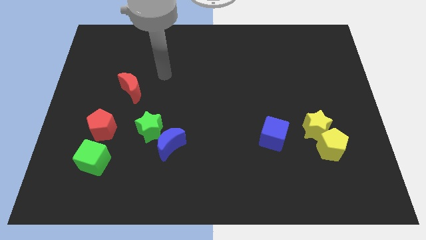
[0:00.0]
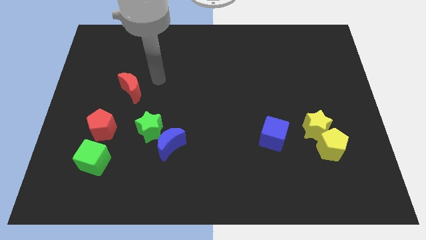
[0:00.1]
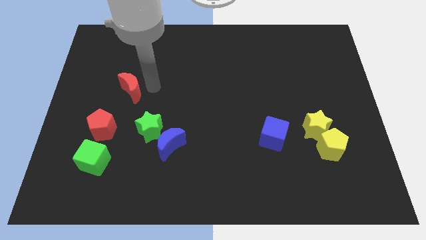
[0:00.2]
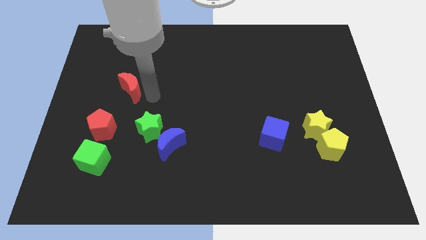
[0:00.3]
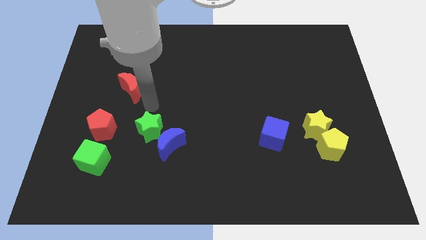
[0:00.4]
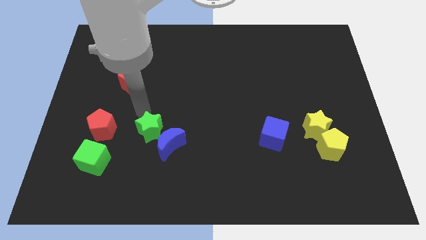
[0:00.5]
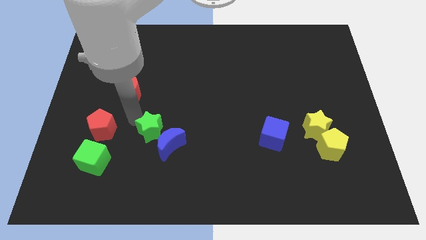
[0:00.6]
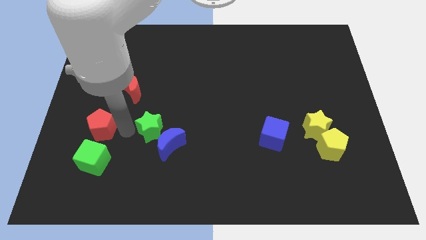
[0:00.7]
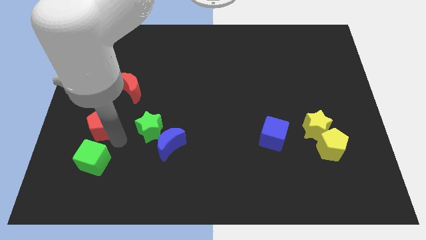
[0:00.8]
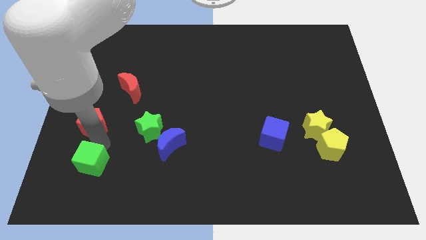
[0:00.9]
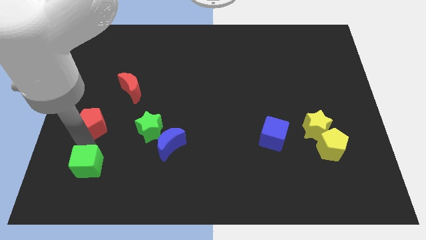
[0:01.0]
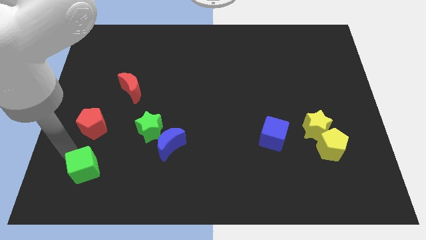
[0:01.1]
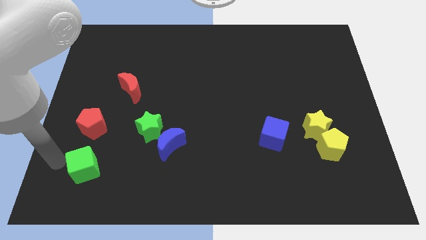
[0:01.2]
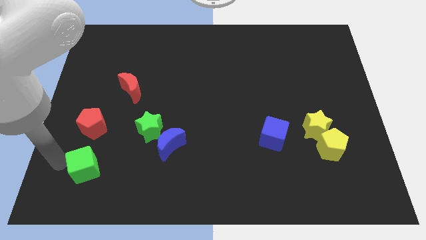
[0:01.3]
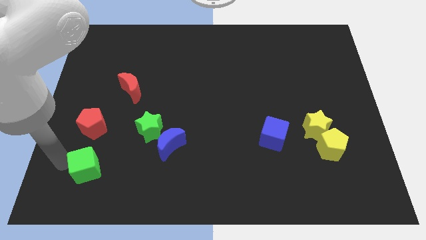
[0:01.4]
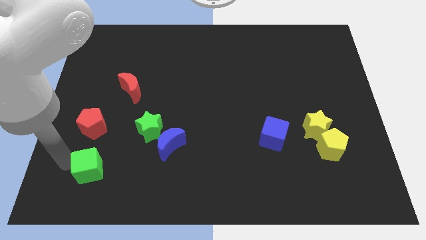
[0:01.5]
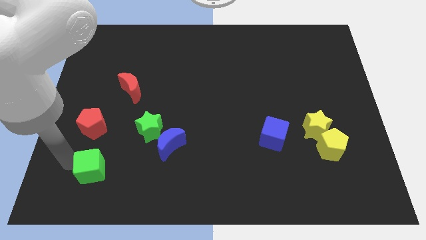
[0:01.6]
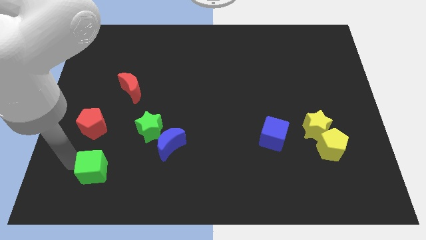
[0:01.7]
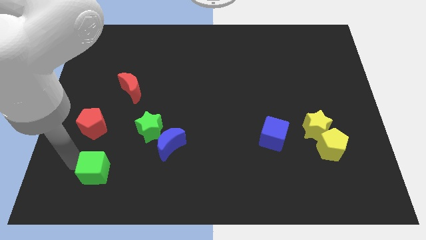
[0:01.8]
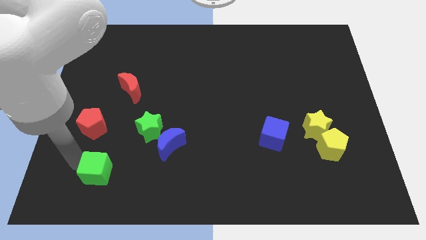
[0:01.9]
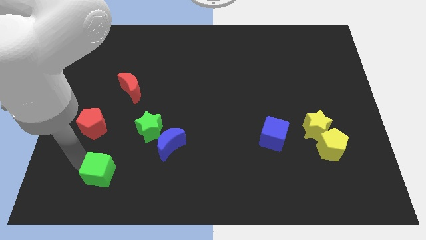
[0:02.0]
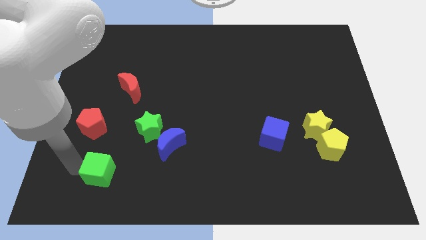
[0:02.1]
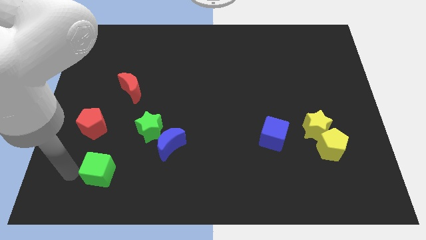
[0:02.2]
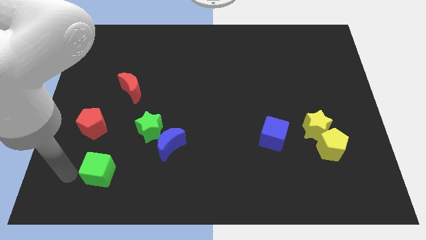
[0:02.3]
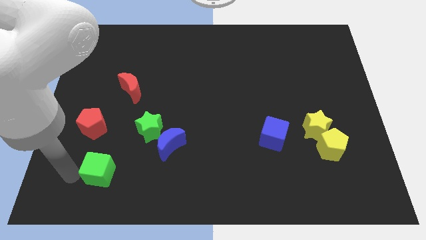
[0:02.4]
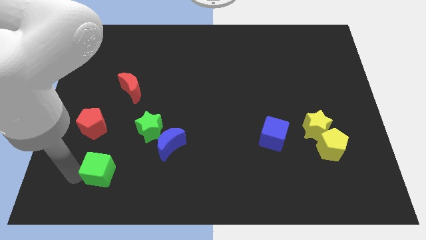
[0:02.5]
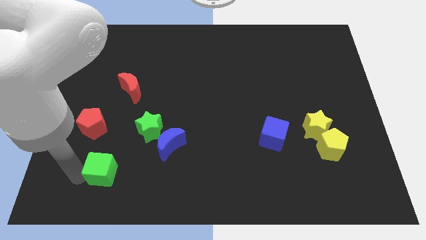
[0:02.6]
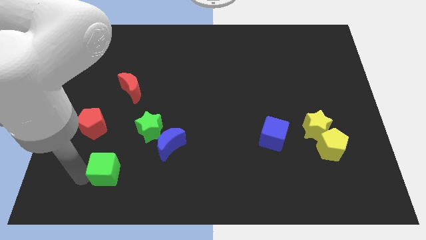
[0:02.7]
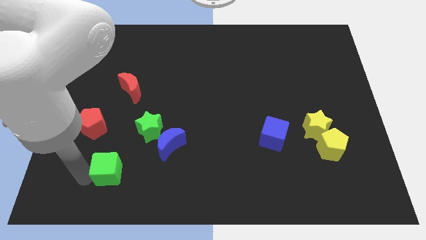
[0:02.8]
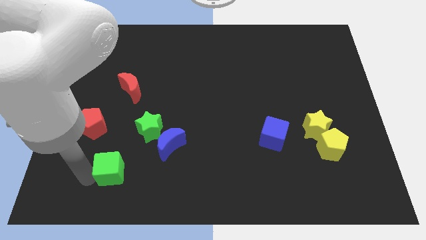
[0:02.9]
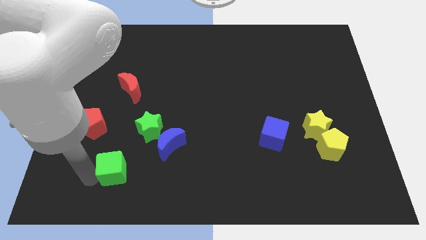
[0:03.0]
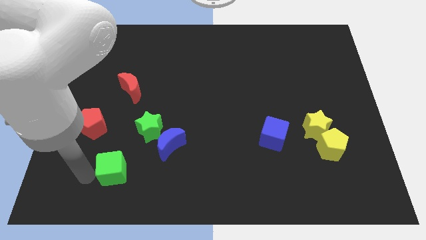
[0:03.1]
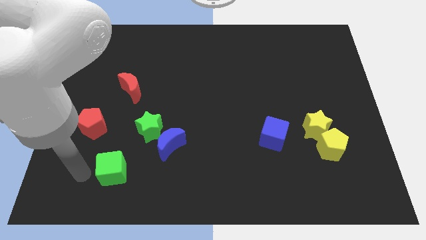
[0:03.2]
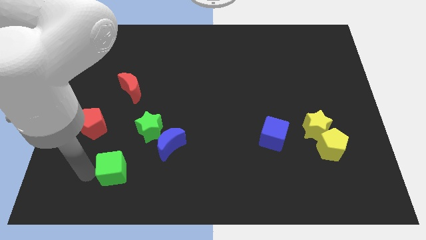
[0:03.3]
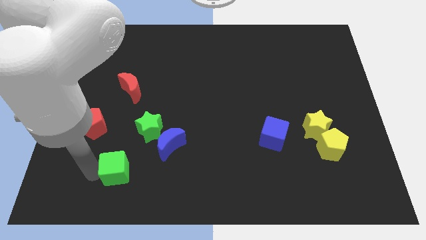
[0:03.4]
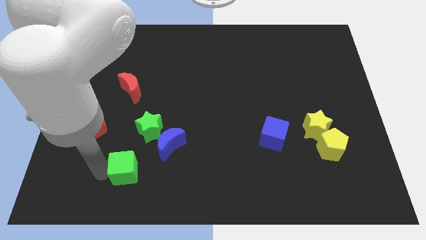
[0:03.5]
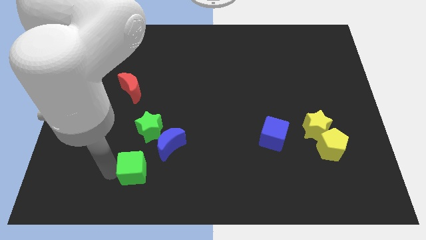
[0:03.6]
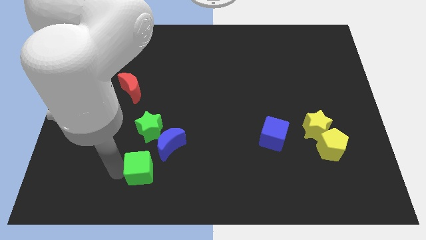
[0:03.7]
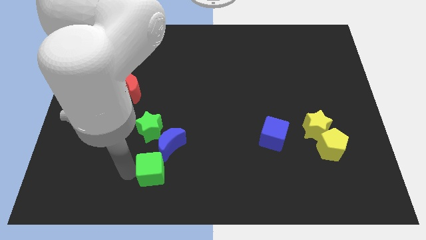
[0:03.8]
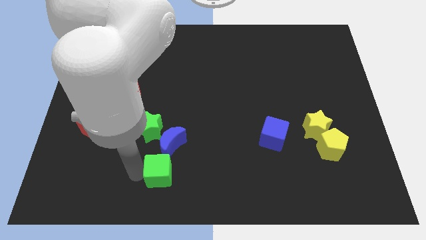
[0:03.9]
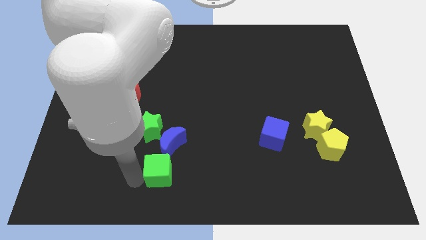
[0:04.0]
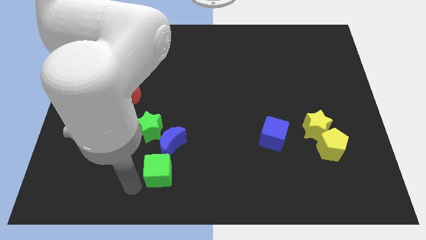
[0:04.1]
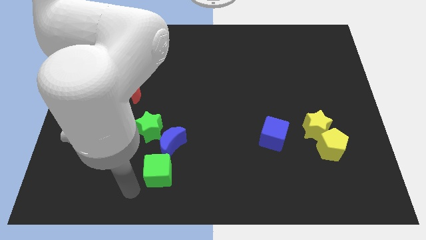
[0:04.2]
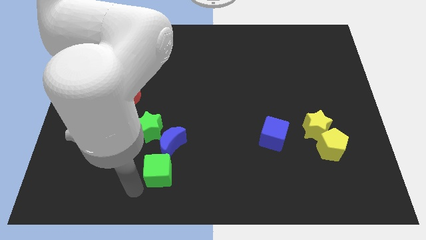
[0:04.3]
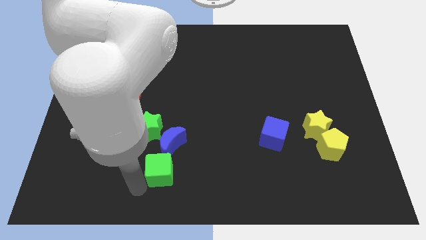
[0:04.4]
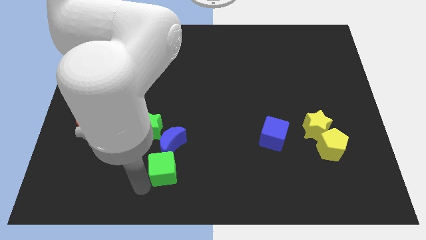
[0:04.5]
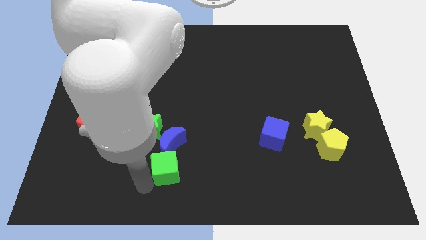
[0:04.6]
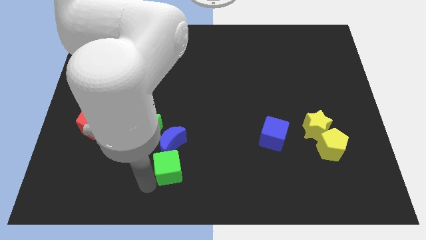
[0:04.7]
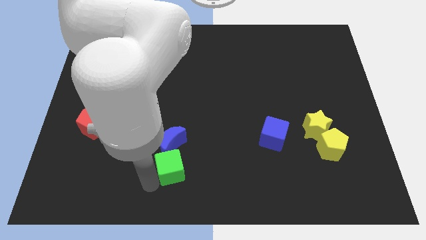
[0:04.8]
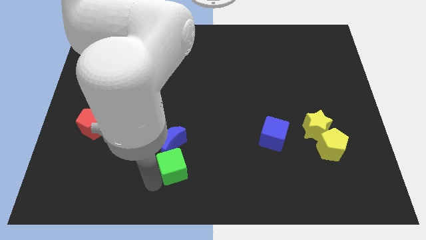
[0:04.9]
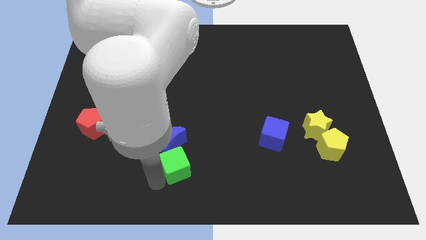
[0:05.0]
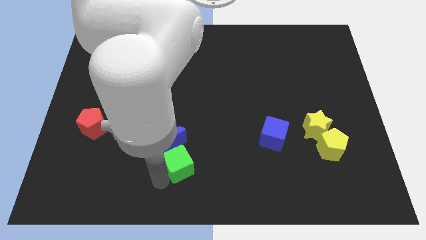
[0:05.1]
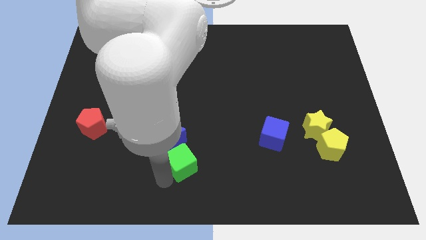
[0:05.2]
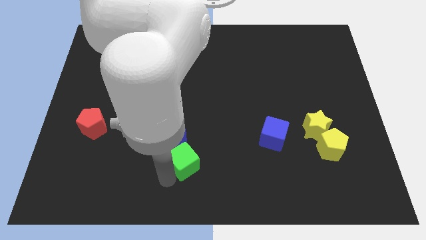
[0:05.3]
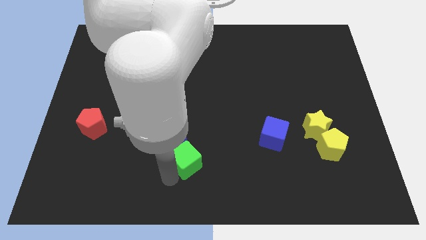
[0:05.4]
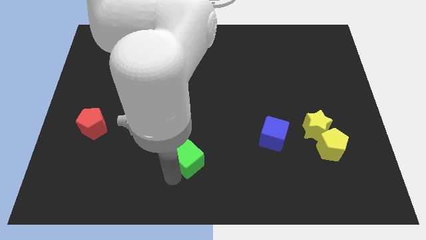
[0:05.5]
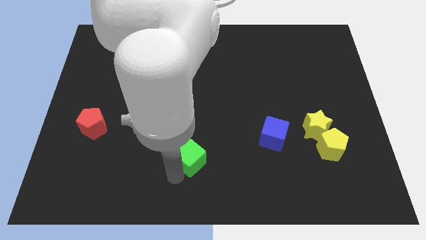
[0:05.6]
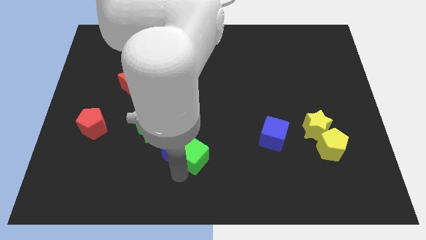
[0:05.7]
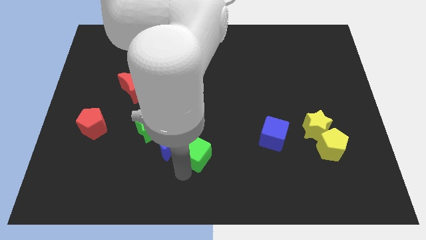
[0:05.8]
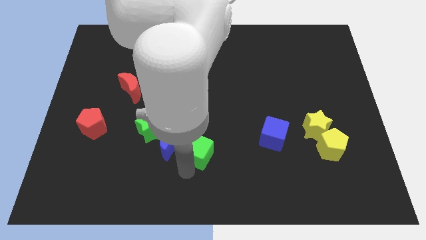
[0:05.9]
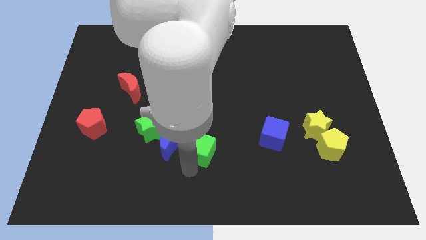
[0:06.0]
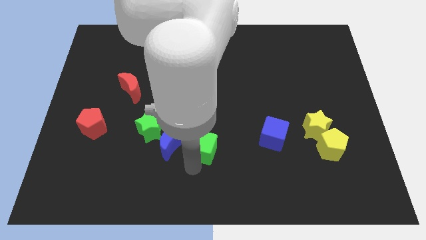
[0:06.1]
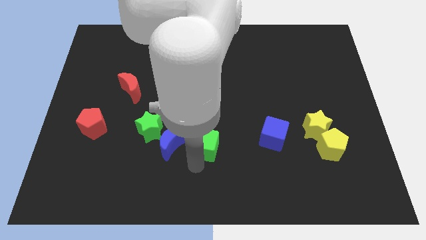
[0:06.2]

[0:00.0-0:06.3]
push the green cube to the right side of the green star

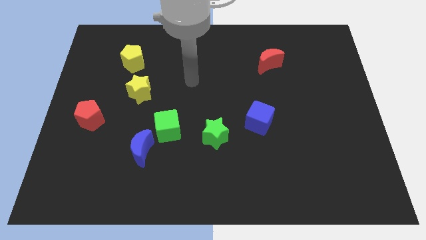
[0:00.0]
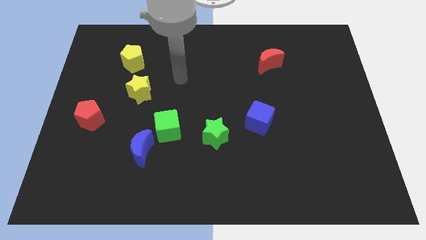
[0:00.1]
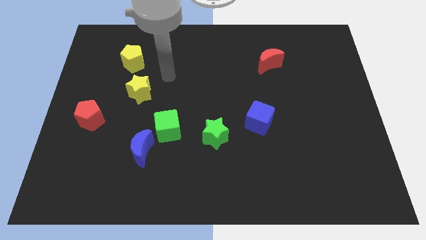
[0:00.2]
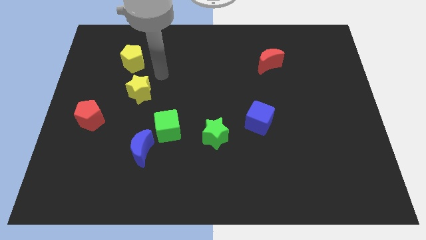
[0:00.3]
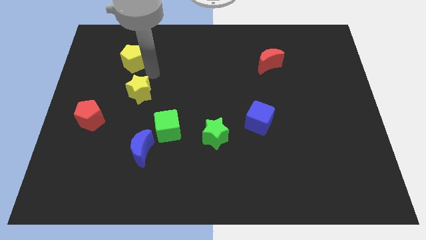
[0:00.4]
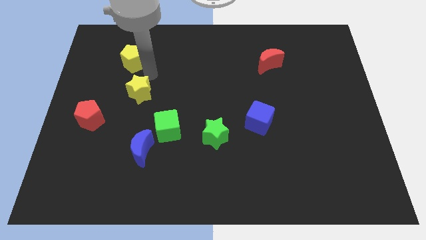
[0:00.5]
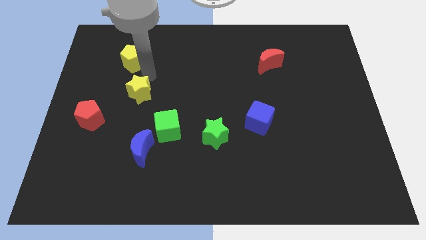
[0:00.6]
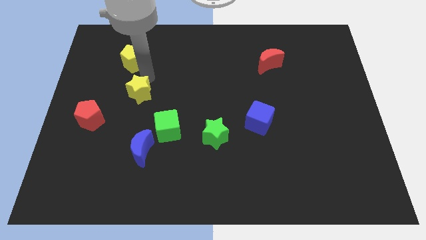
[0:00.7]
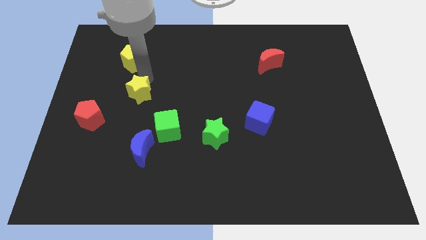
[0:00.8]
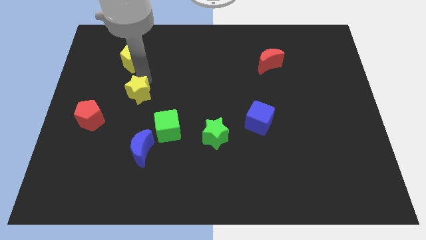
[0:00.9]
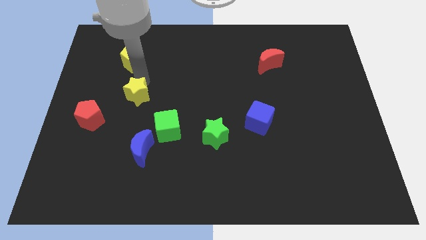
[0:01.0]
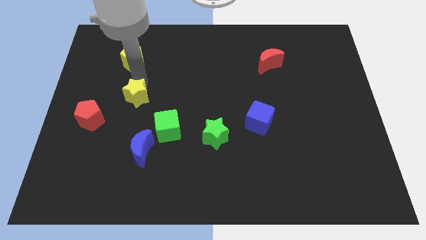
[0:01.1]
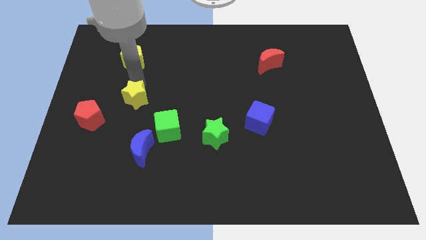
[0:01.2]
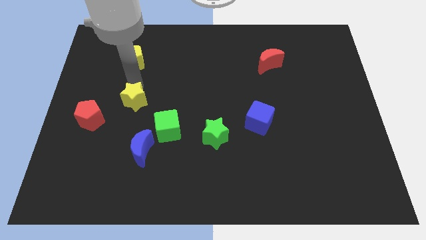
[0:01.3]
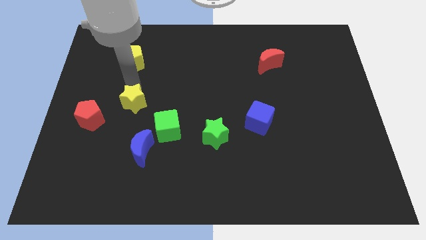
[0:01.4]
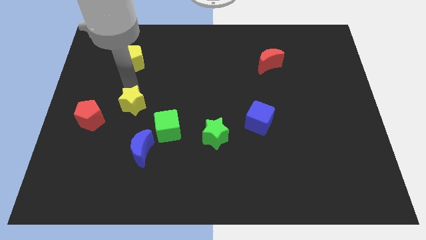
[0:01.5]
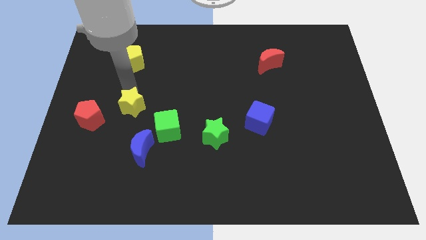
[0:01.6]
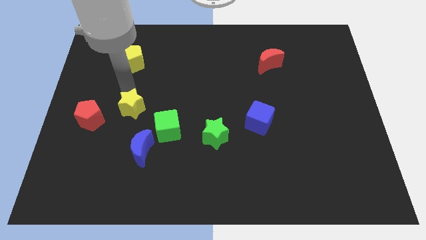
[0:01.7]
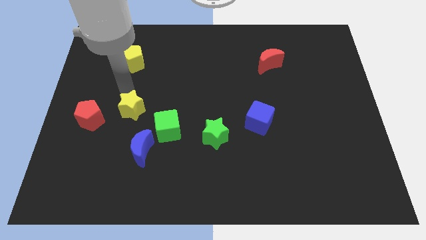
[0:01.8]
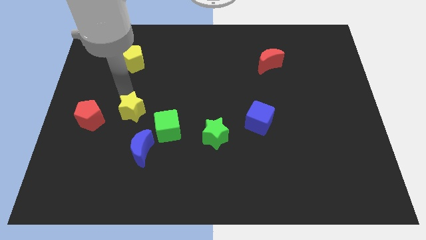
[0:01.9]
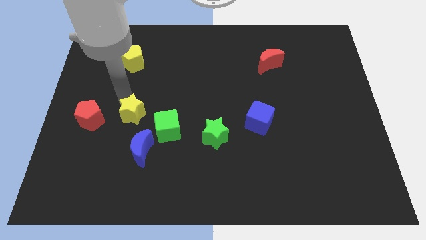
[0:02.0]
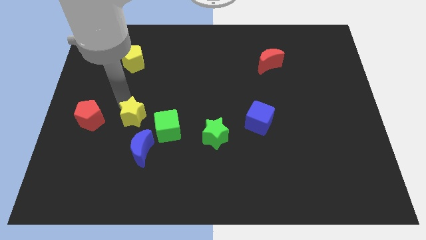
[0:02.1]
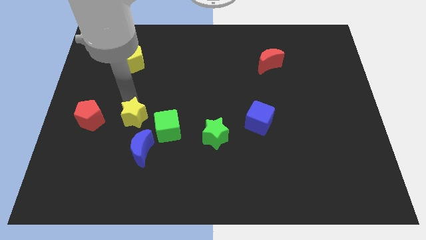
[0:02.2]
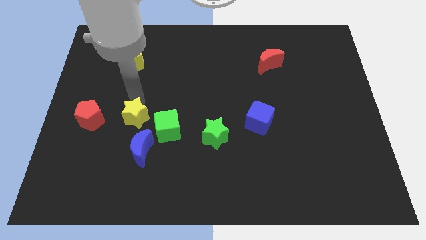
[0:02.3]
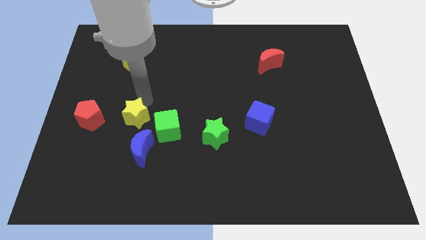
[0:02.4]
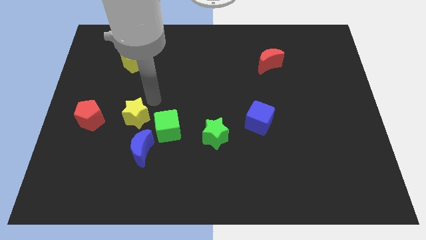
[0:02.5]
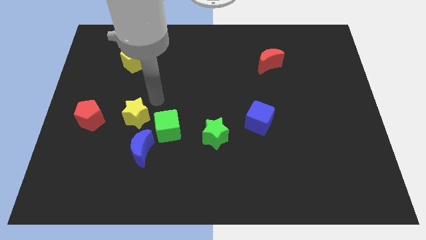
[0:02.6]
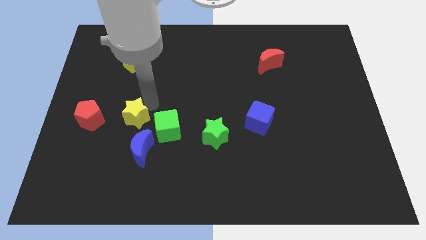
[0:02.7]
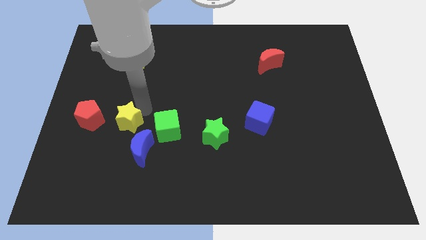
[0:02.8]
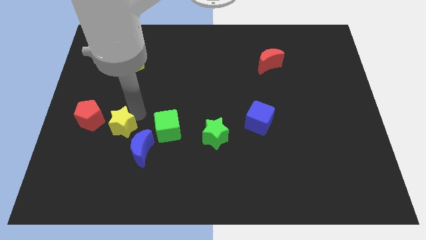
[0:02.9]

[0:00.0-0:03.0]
slide the yellow star diagonally down and to the right of the red pentagon
